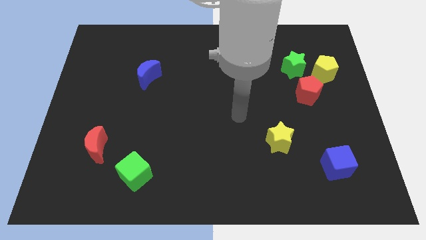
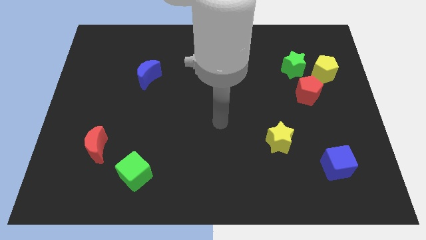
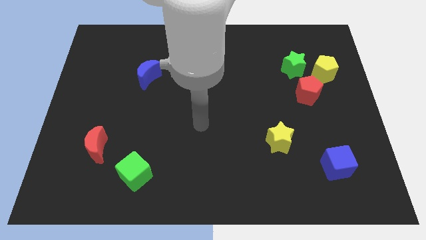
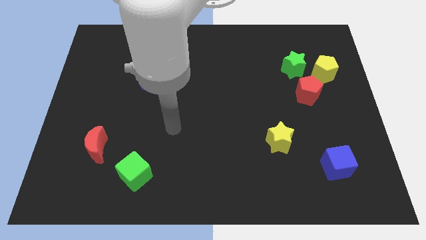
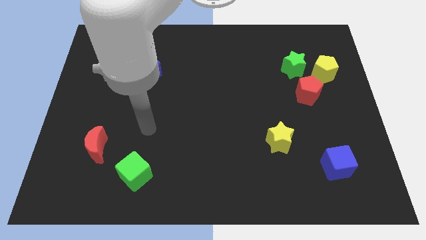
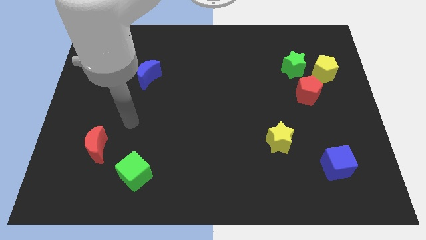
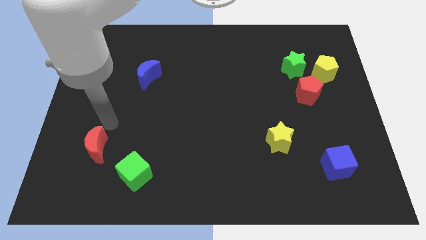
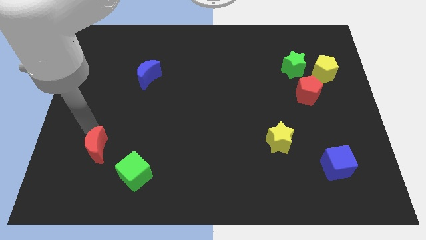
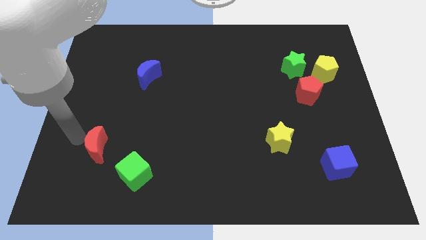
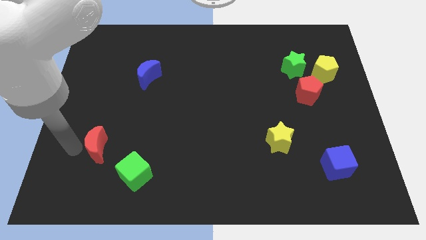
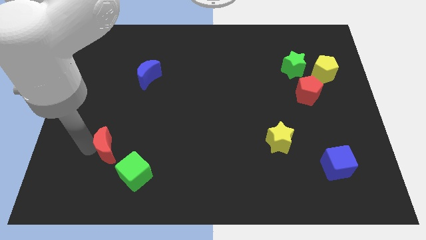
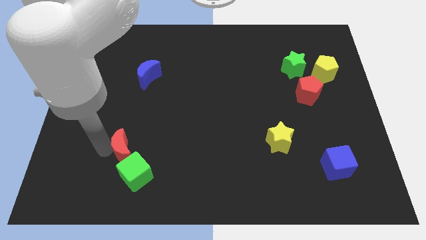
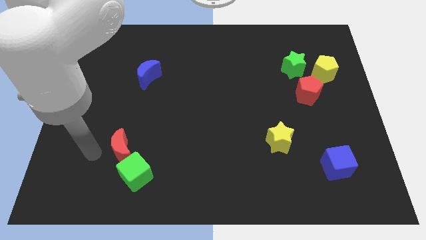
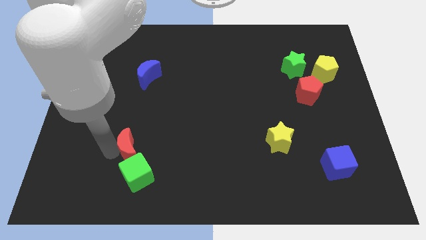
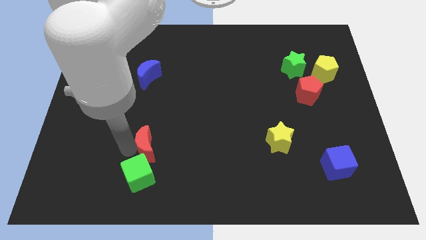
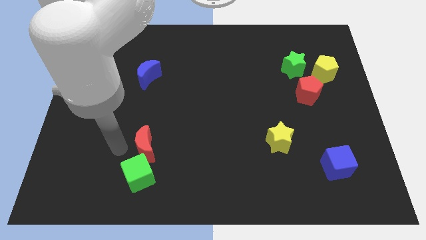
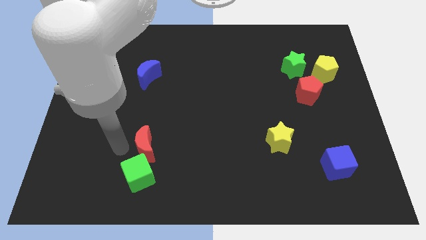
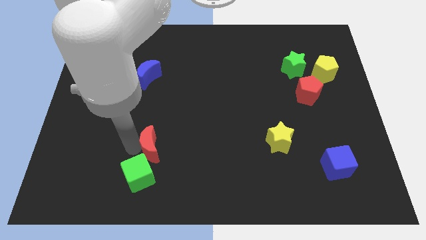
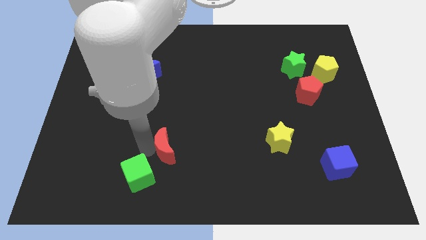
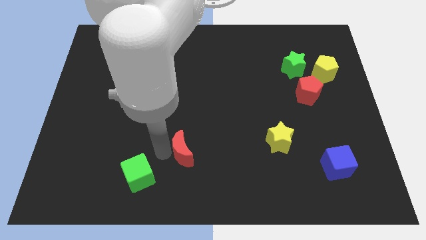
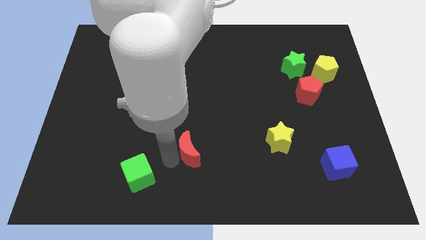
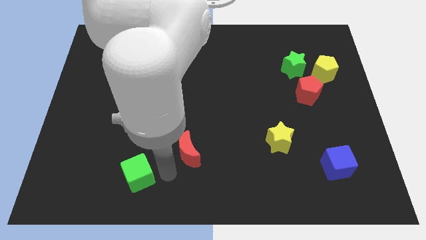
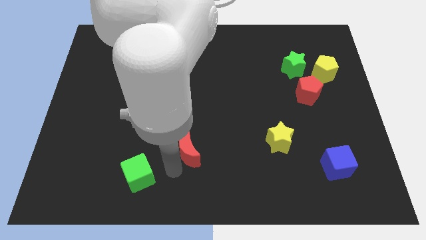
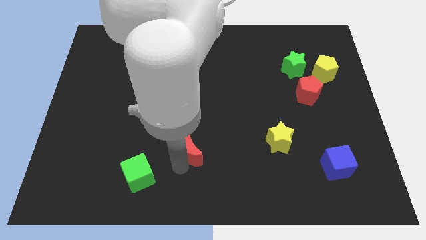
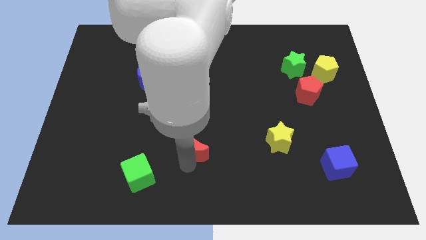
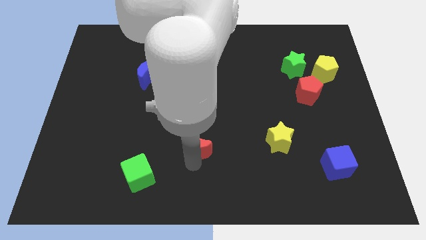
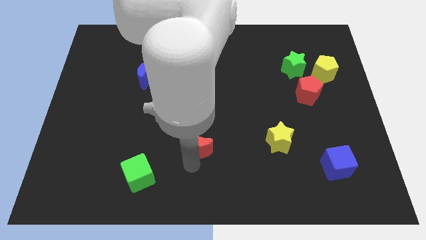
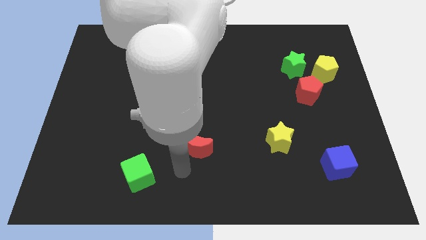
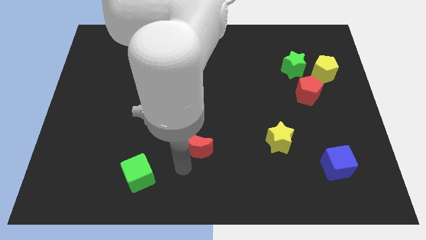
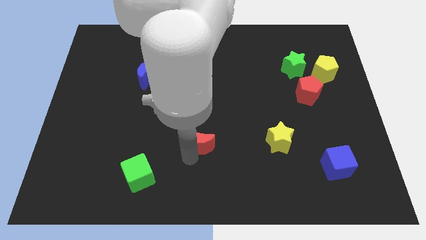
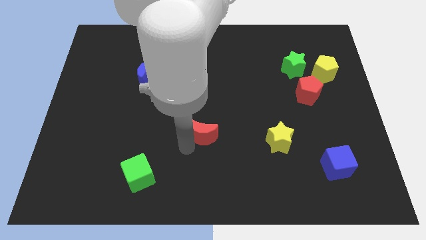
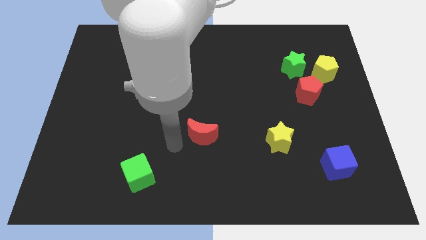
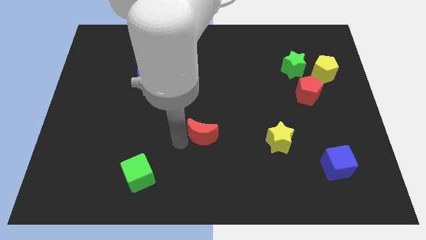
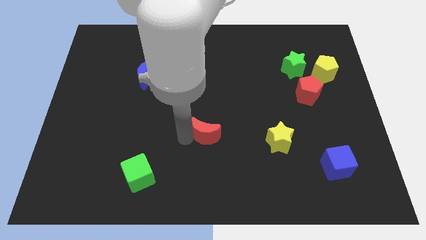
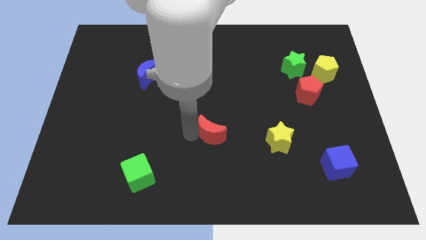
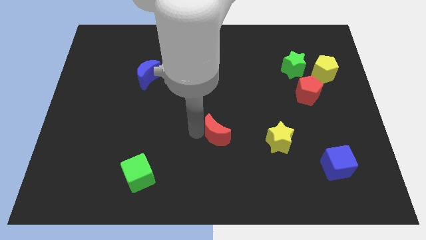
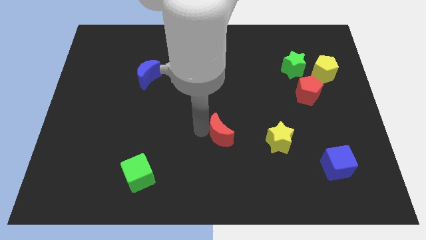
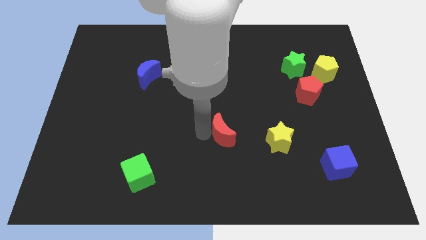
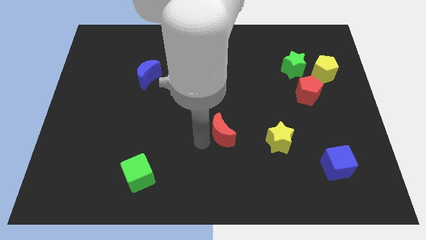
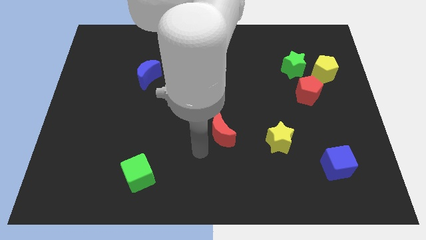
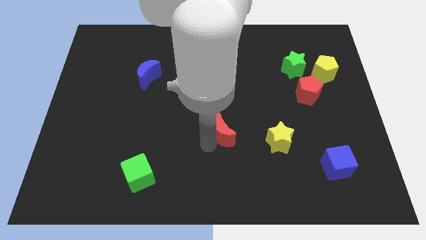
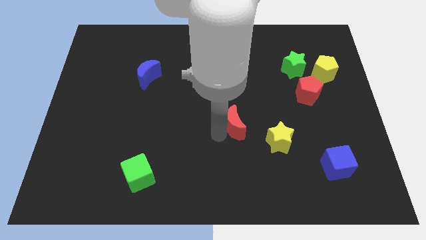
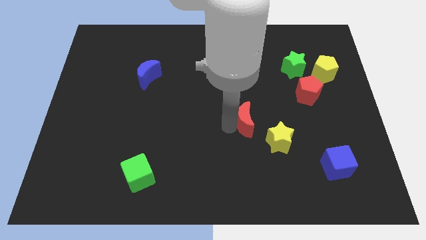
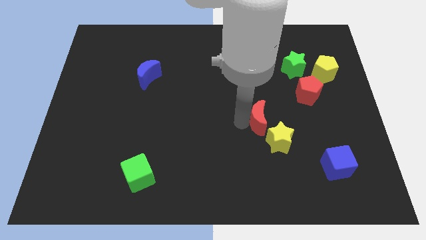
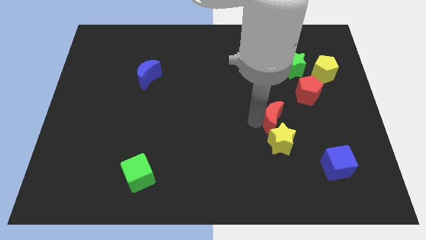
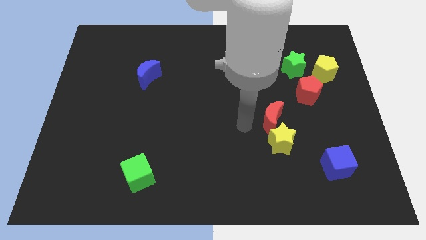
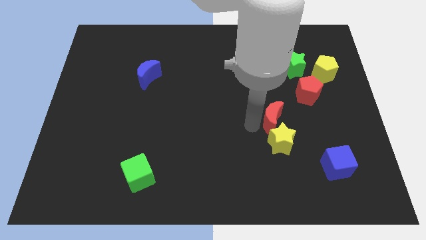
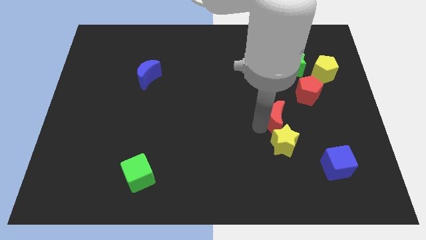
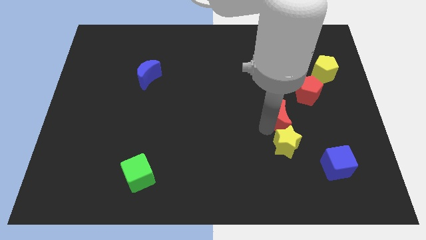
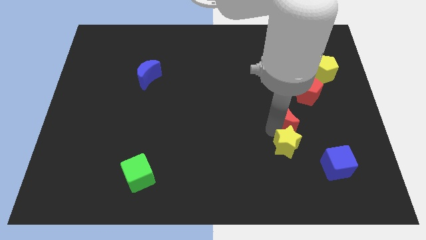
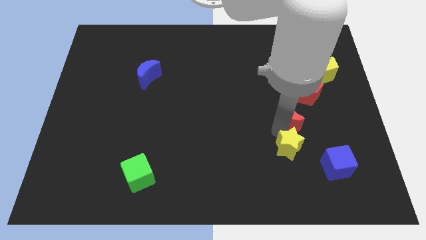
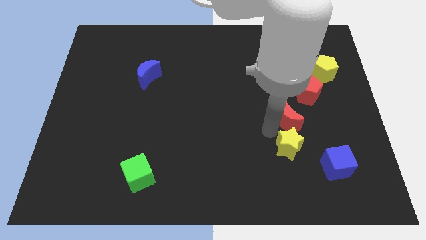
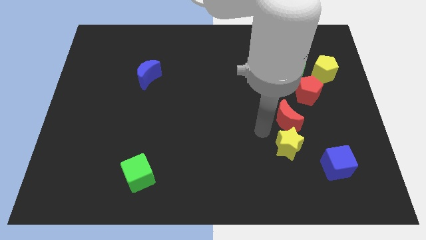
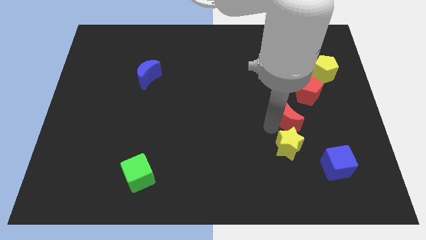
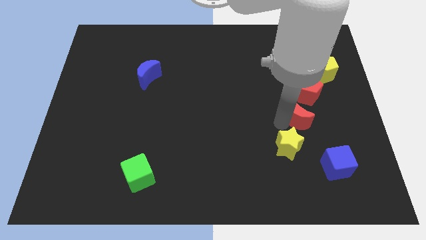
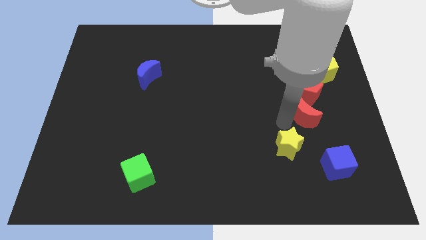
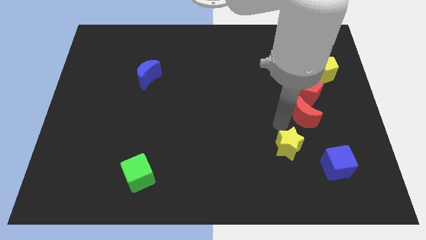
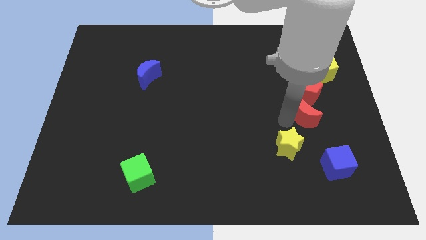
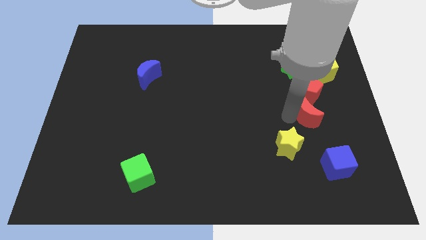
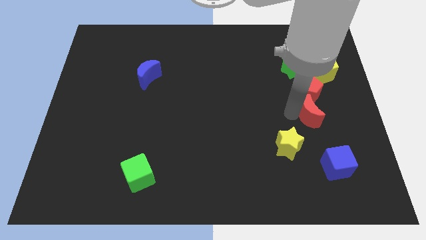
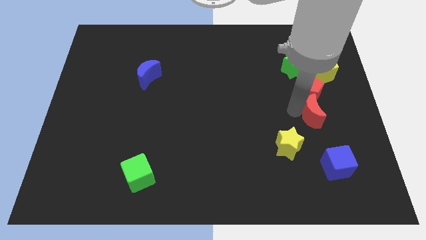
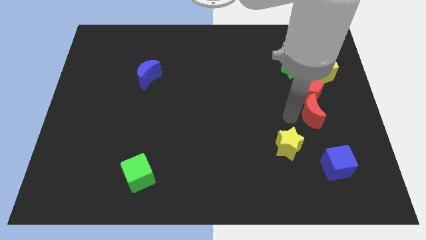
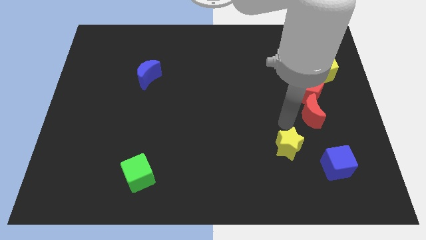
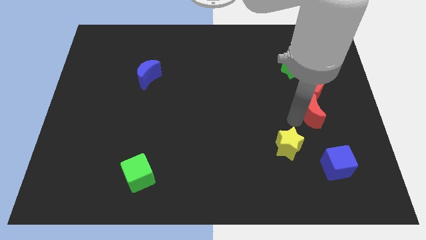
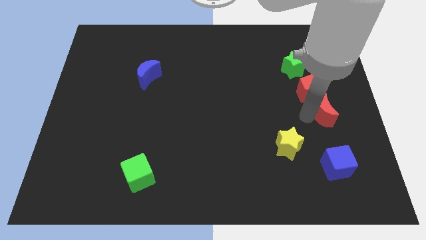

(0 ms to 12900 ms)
slide the red moon to the right side of the board

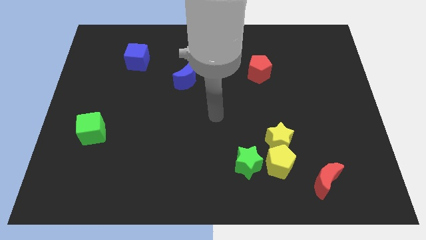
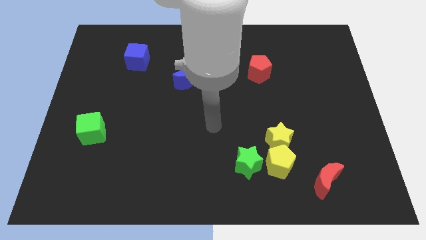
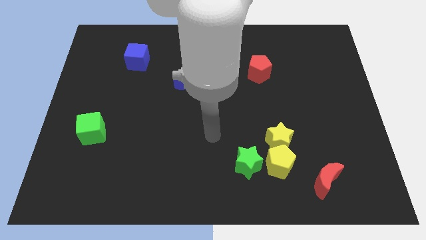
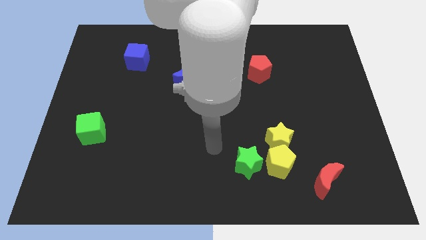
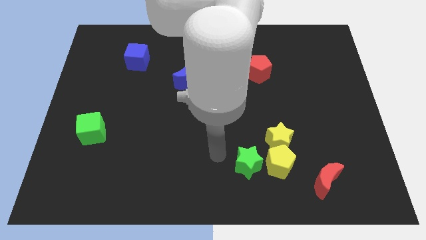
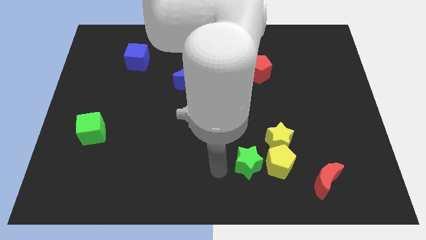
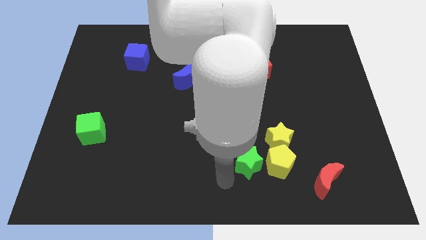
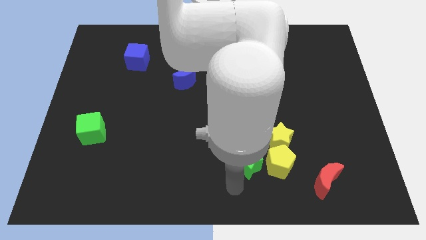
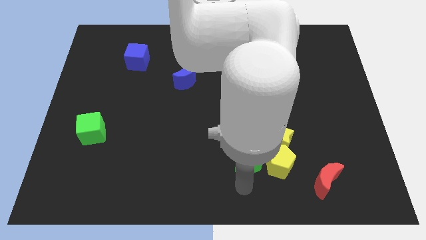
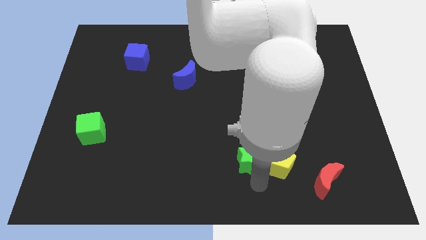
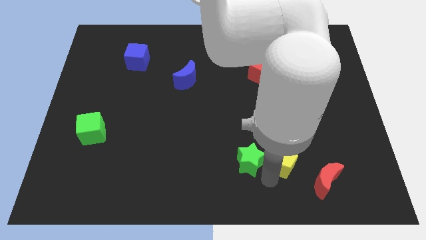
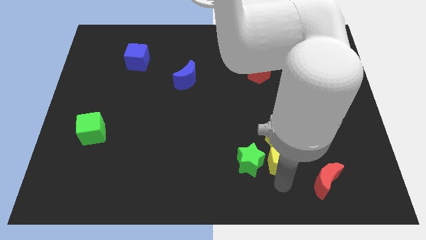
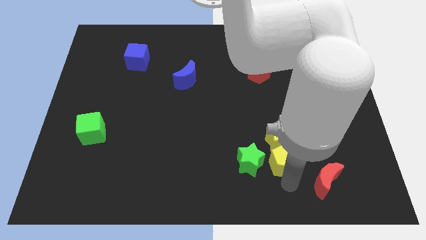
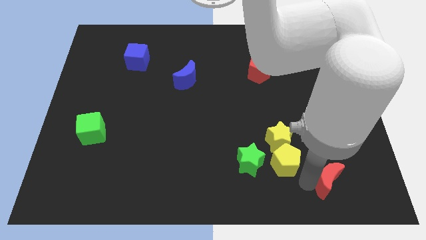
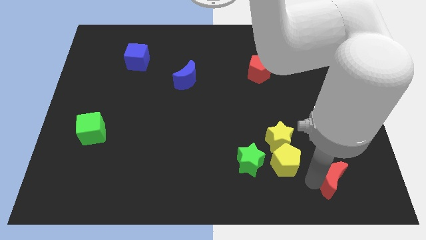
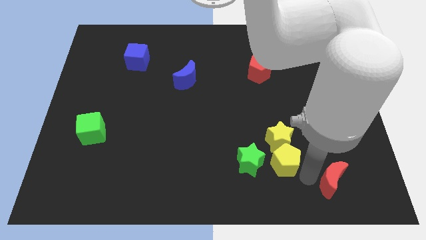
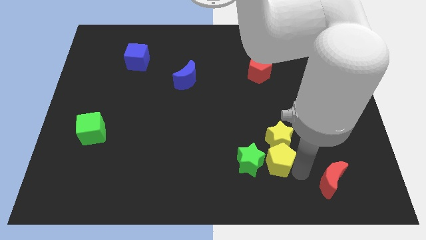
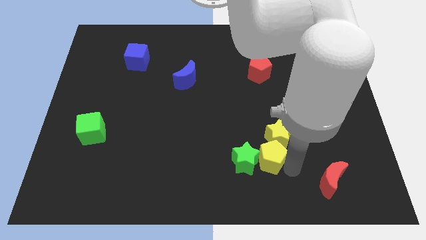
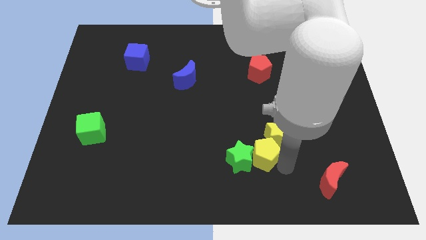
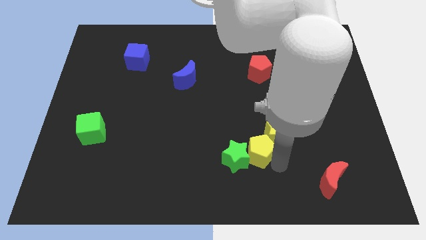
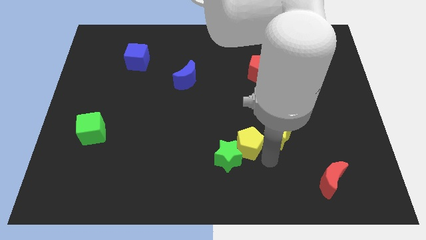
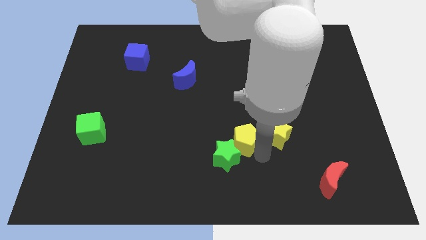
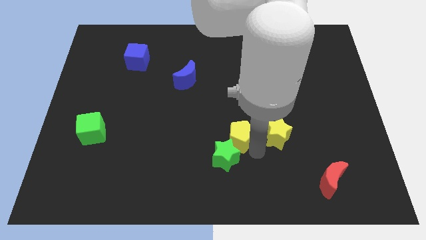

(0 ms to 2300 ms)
move the yellow pentagon to the center of the board
